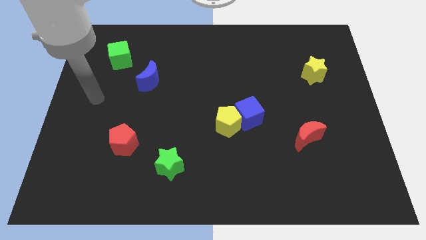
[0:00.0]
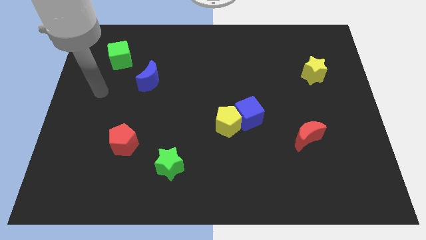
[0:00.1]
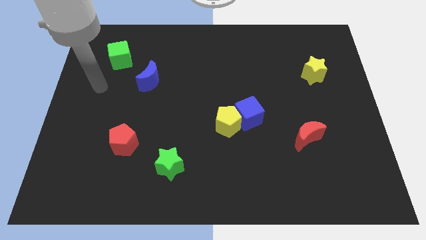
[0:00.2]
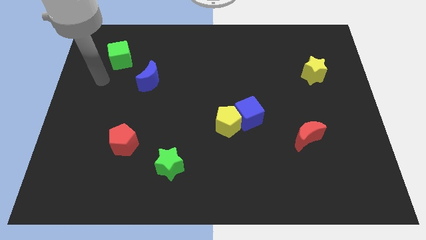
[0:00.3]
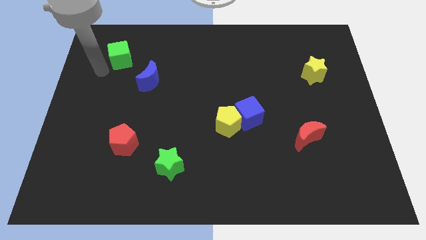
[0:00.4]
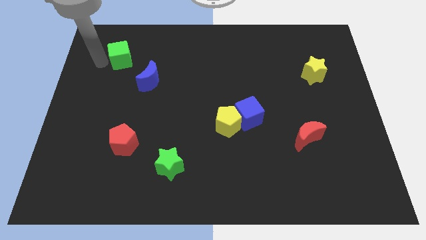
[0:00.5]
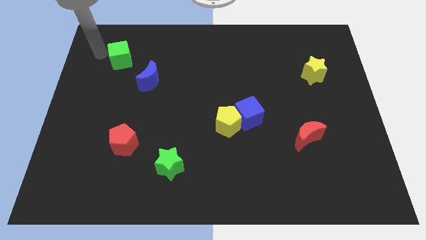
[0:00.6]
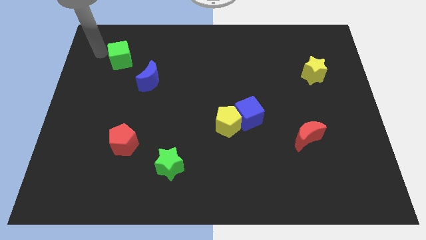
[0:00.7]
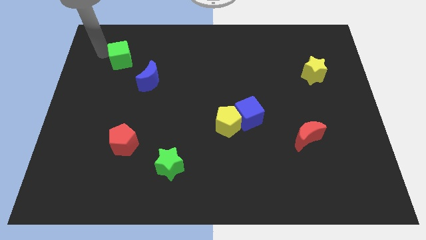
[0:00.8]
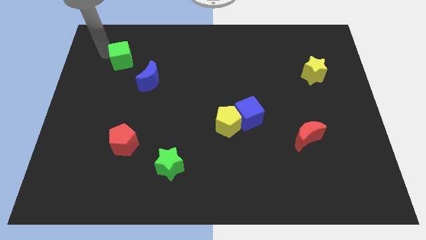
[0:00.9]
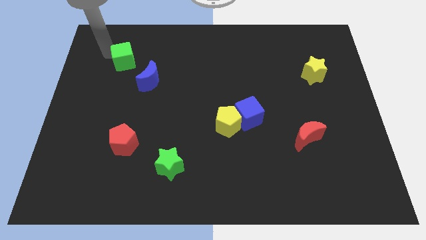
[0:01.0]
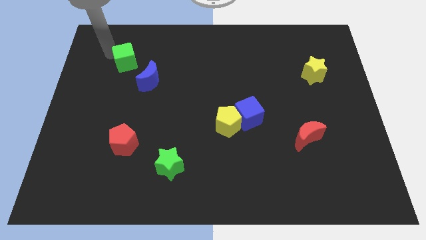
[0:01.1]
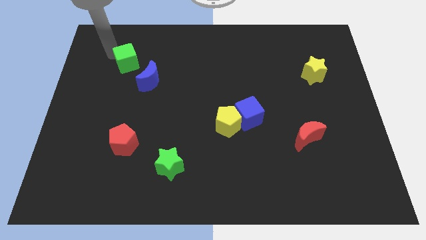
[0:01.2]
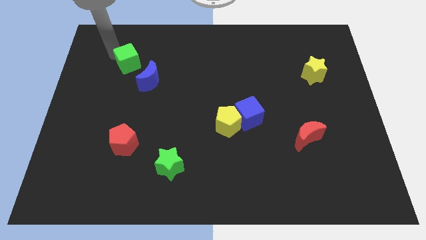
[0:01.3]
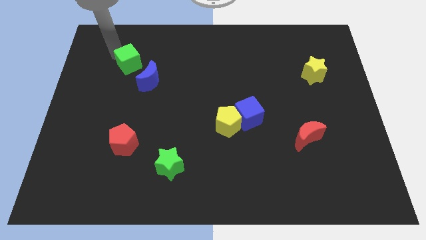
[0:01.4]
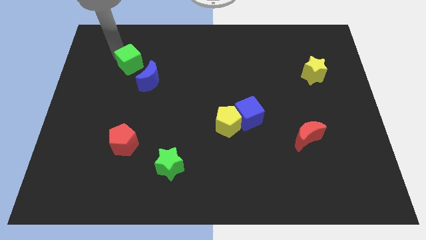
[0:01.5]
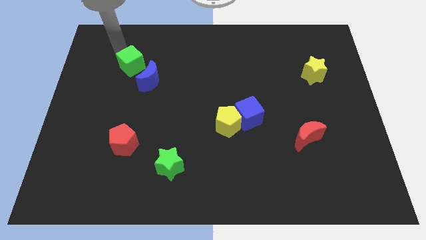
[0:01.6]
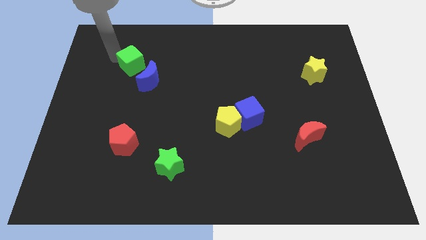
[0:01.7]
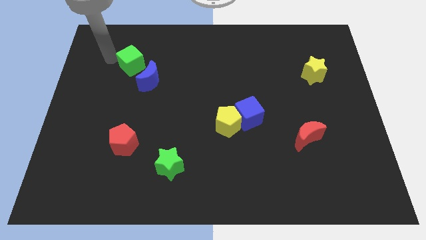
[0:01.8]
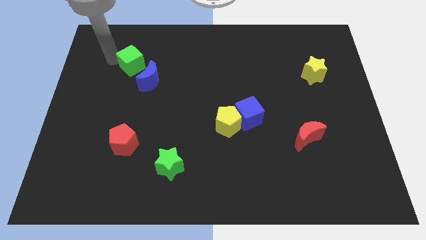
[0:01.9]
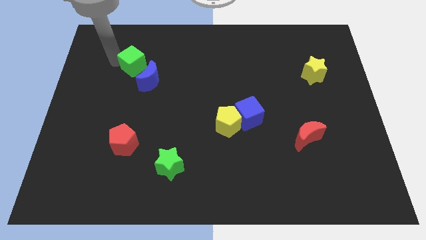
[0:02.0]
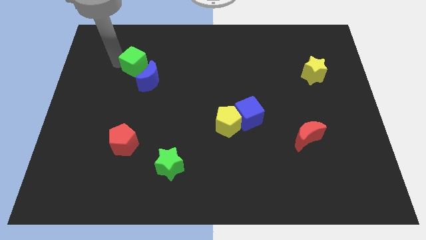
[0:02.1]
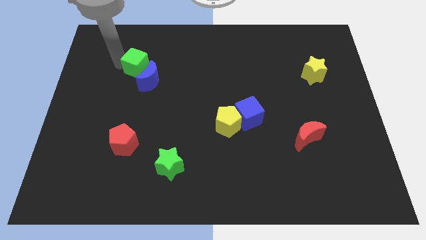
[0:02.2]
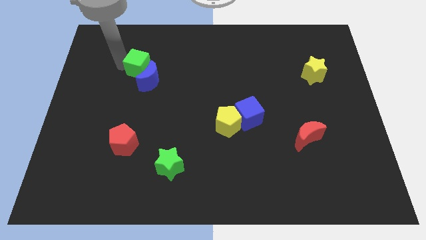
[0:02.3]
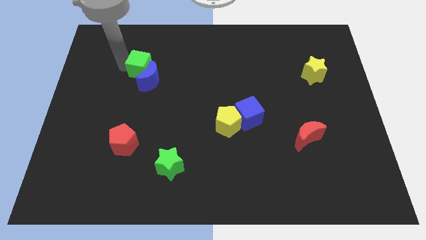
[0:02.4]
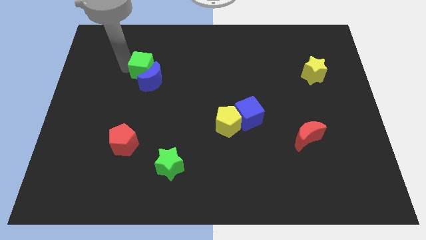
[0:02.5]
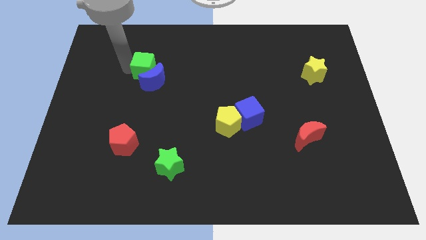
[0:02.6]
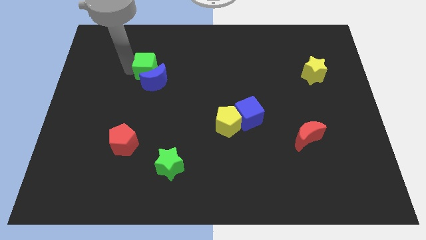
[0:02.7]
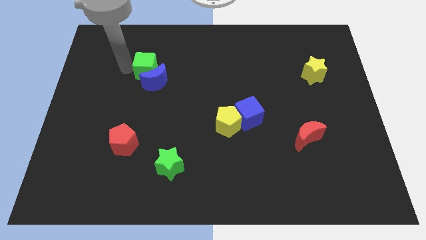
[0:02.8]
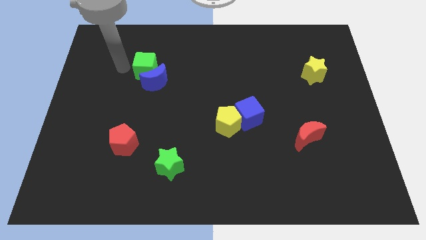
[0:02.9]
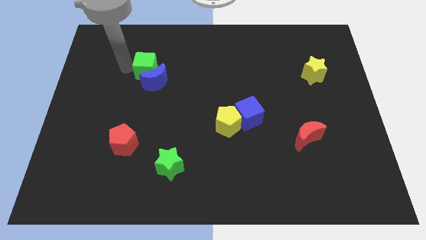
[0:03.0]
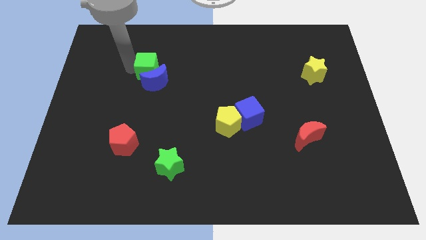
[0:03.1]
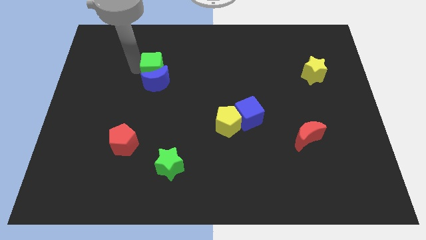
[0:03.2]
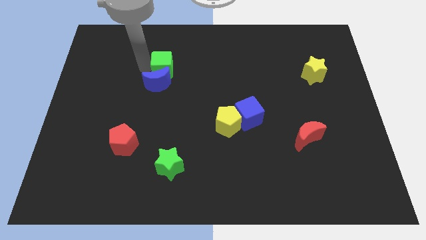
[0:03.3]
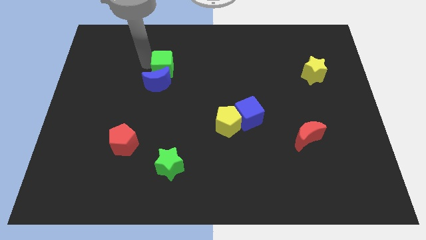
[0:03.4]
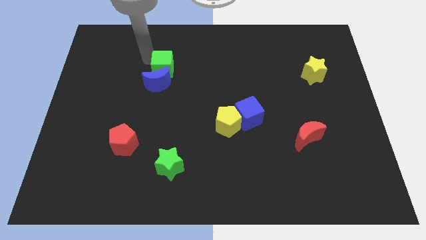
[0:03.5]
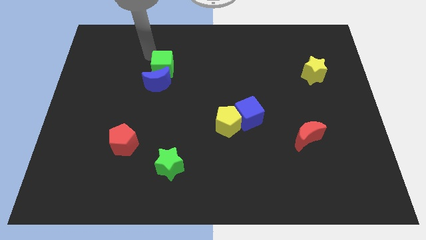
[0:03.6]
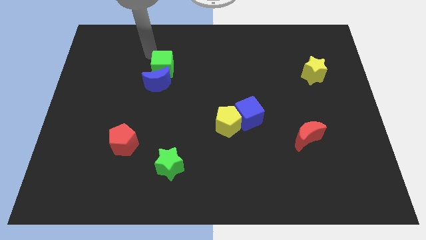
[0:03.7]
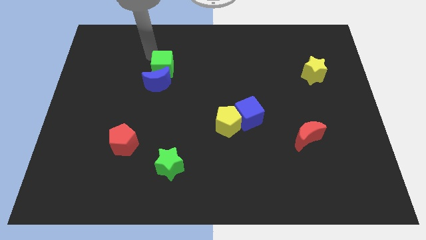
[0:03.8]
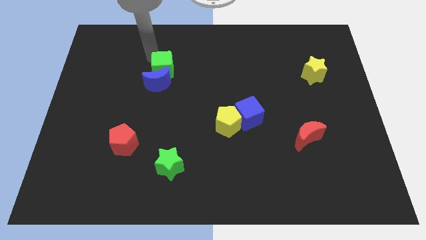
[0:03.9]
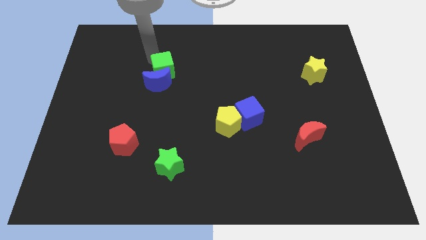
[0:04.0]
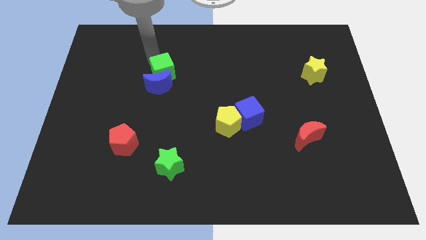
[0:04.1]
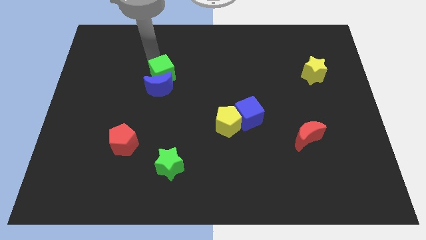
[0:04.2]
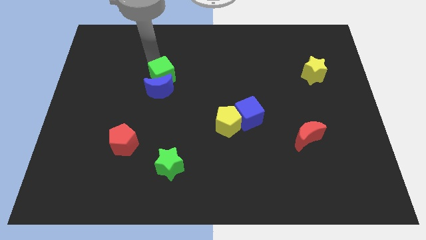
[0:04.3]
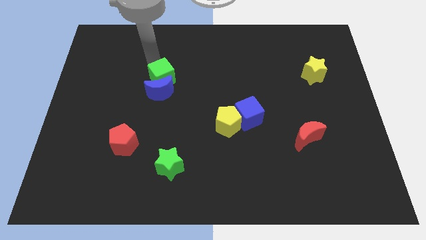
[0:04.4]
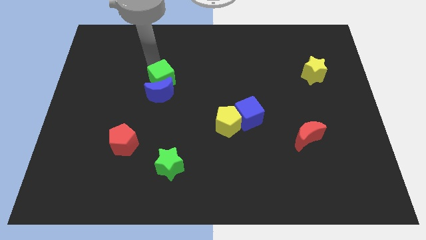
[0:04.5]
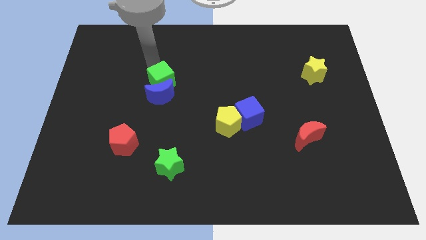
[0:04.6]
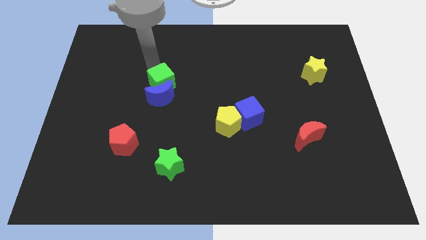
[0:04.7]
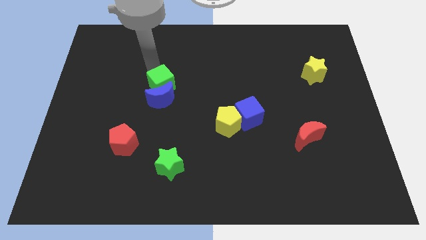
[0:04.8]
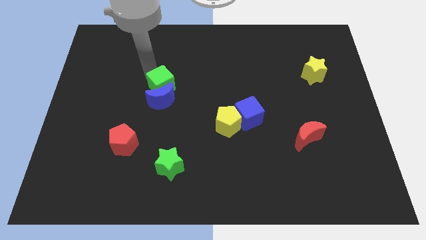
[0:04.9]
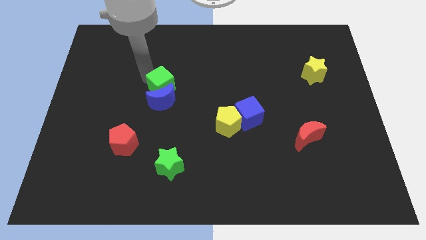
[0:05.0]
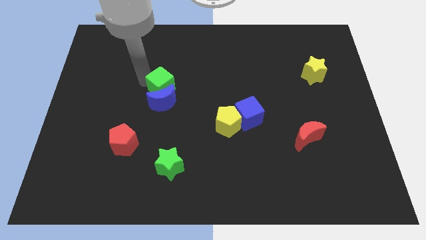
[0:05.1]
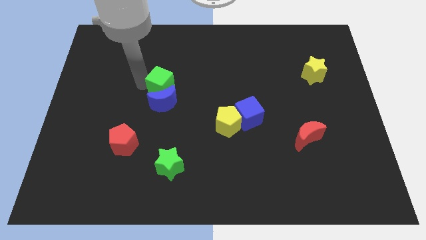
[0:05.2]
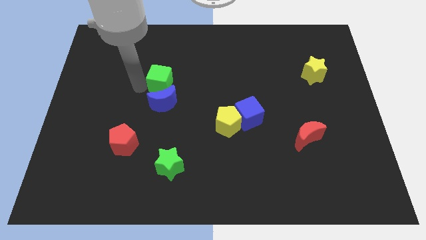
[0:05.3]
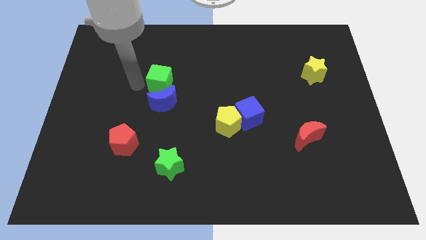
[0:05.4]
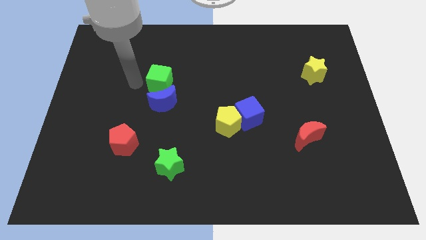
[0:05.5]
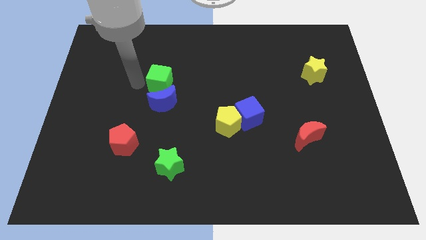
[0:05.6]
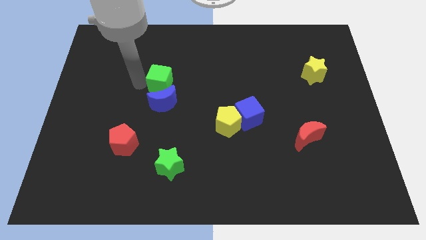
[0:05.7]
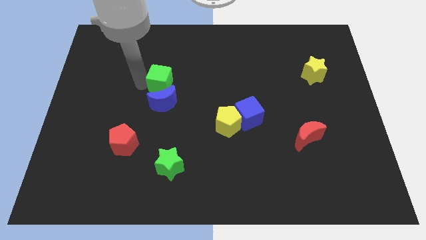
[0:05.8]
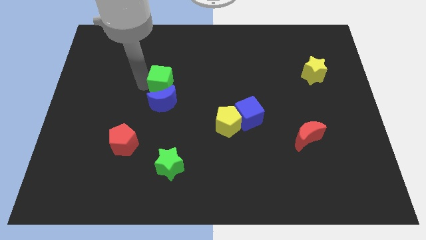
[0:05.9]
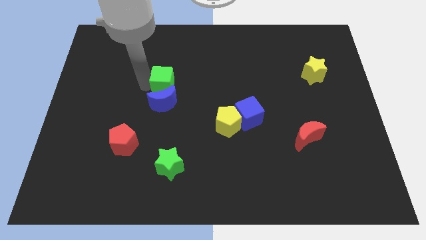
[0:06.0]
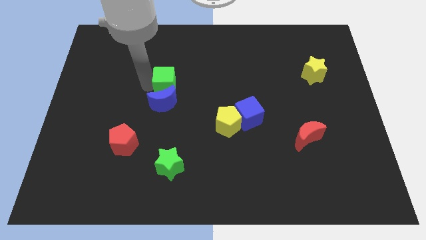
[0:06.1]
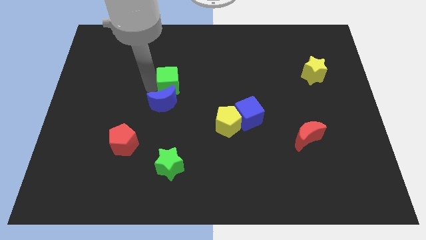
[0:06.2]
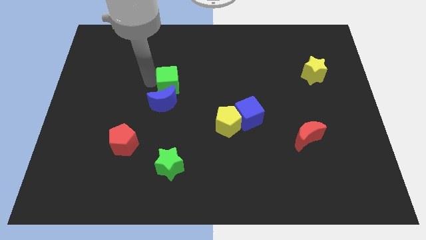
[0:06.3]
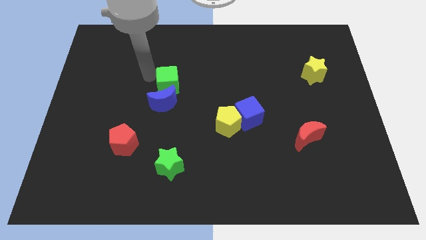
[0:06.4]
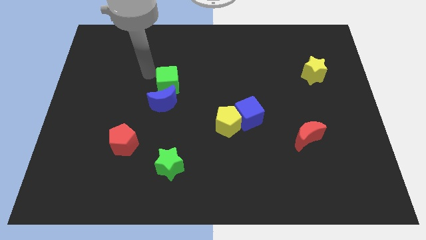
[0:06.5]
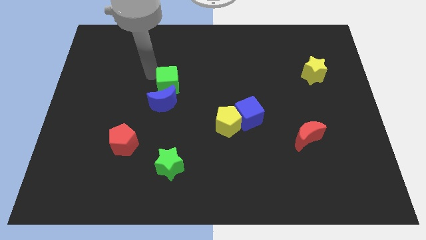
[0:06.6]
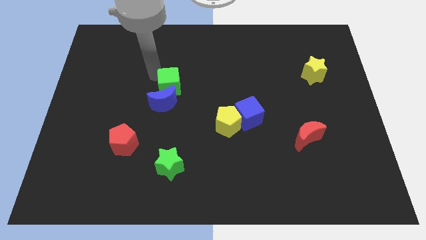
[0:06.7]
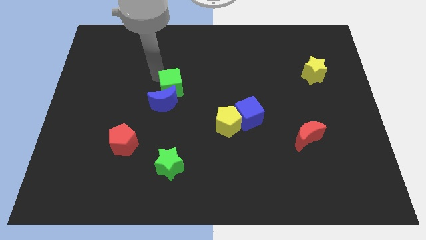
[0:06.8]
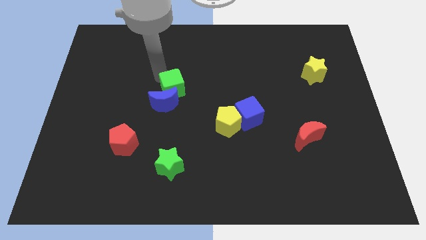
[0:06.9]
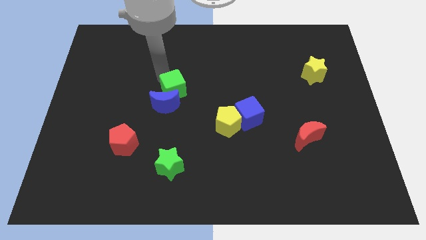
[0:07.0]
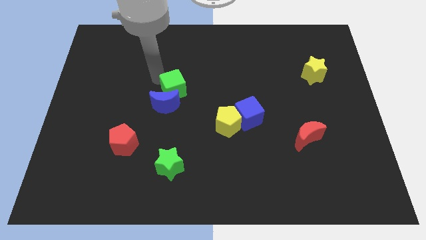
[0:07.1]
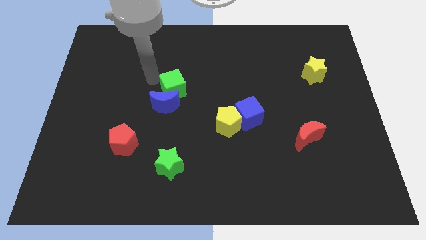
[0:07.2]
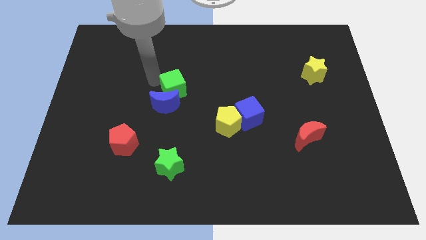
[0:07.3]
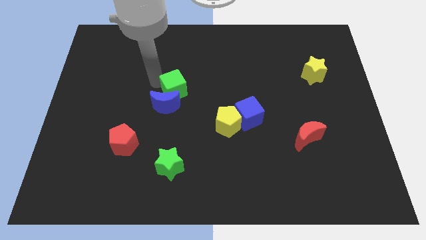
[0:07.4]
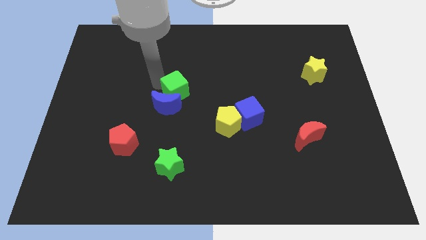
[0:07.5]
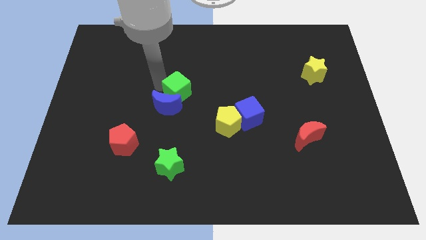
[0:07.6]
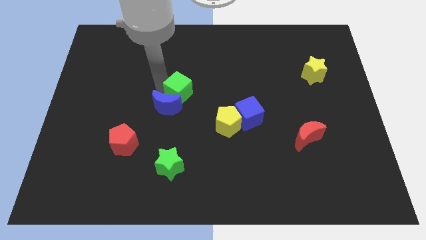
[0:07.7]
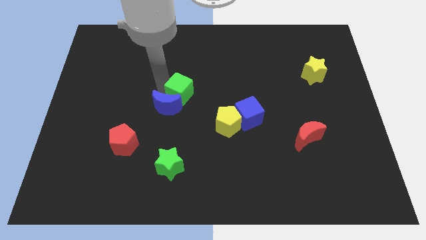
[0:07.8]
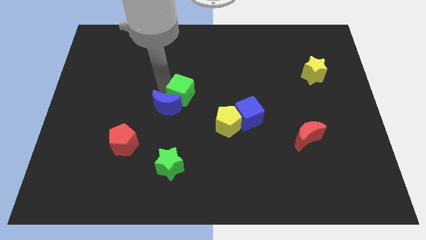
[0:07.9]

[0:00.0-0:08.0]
slide the green cube downwards and to the right diagonally
